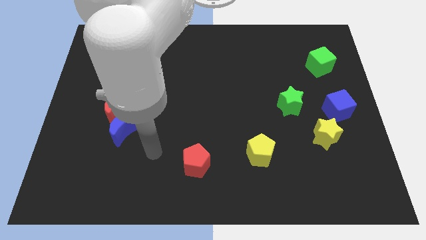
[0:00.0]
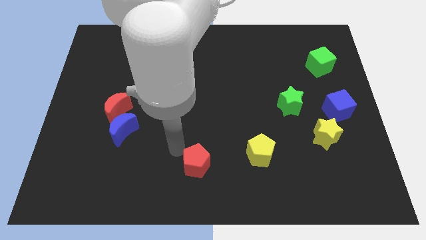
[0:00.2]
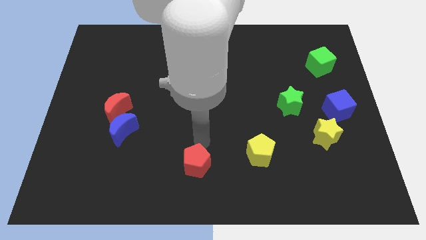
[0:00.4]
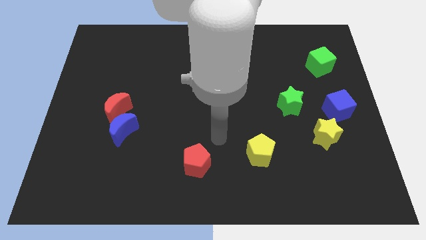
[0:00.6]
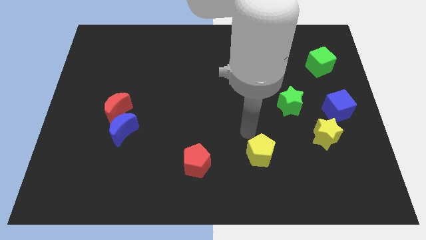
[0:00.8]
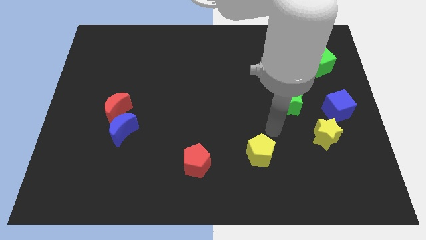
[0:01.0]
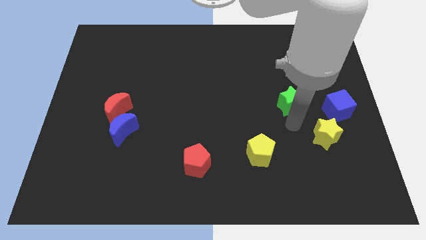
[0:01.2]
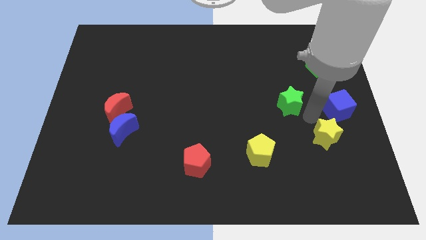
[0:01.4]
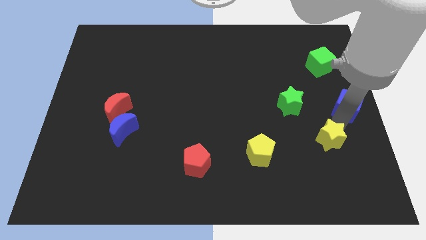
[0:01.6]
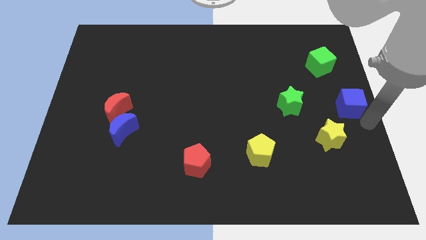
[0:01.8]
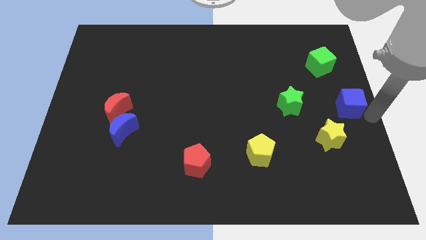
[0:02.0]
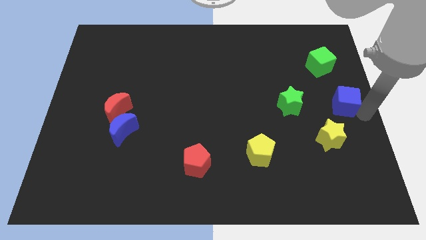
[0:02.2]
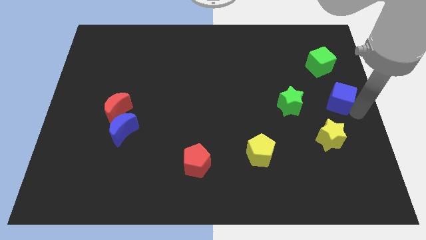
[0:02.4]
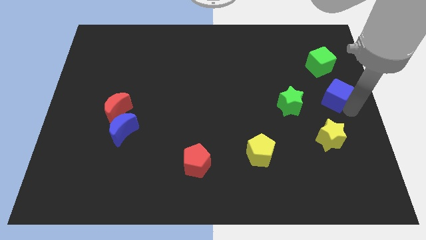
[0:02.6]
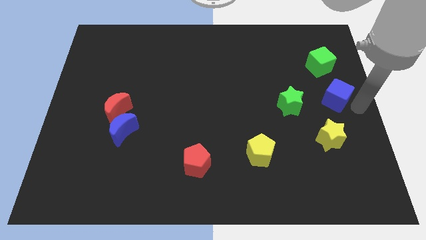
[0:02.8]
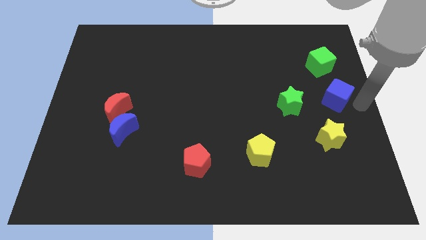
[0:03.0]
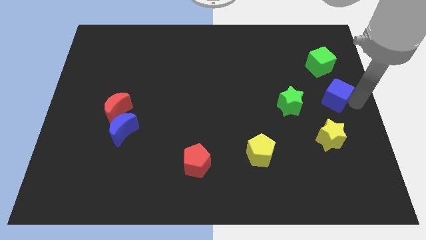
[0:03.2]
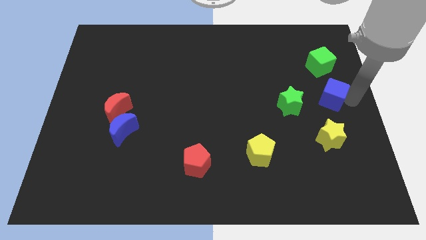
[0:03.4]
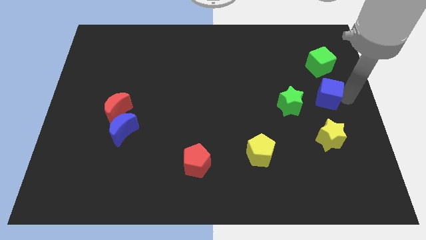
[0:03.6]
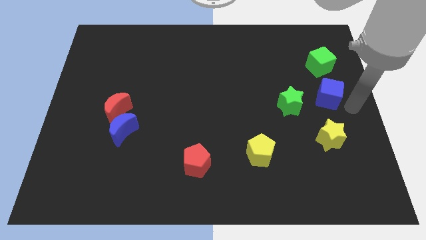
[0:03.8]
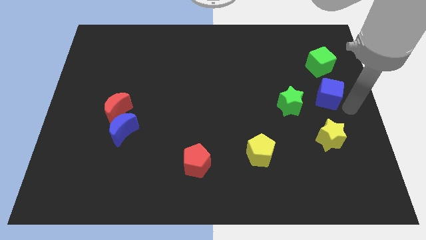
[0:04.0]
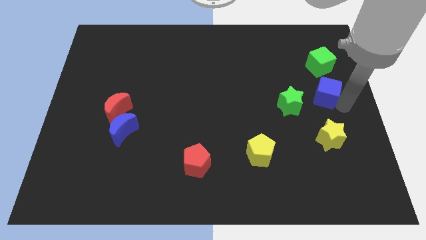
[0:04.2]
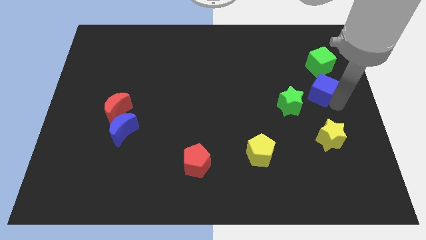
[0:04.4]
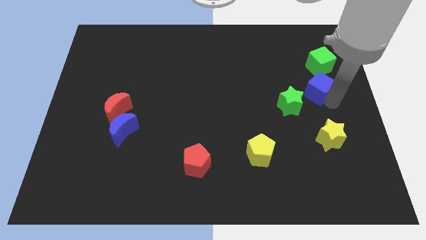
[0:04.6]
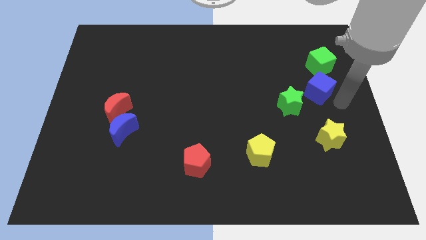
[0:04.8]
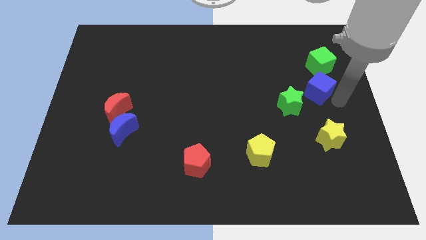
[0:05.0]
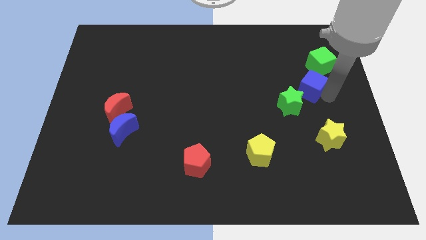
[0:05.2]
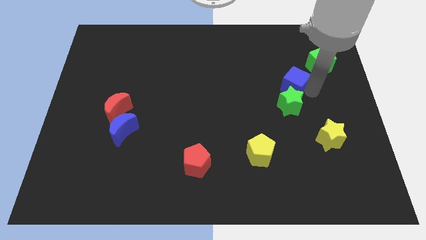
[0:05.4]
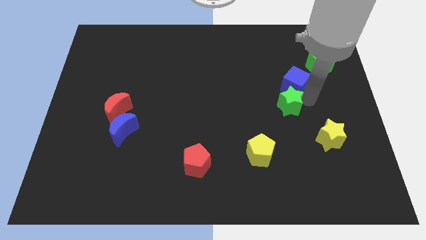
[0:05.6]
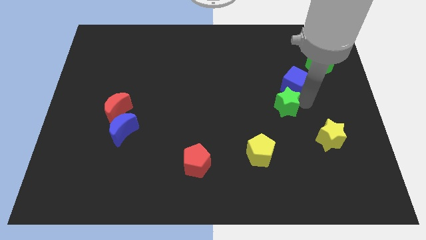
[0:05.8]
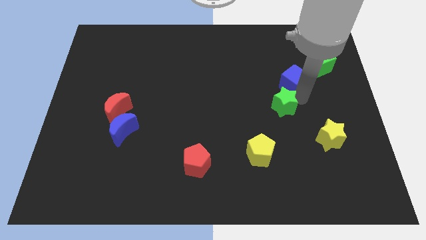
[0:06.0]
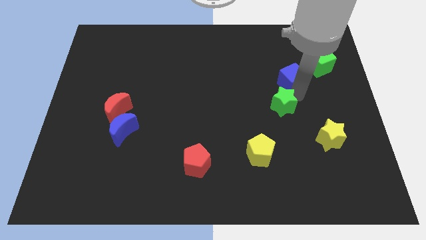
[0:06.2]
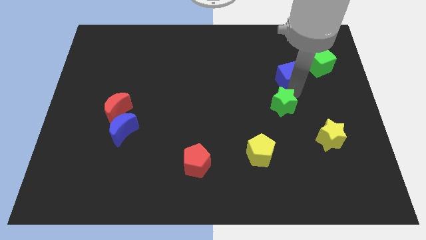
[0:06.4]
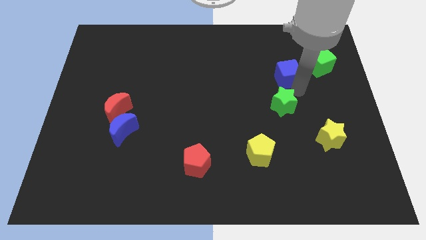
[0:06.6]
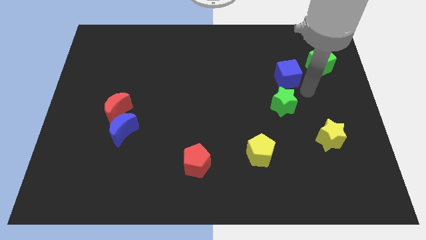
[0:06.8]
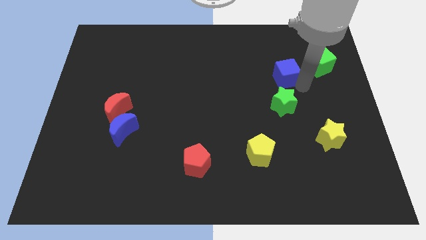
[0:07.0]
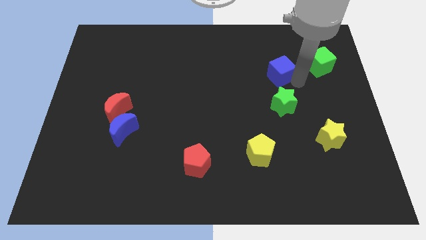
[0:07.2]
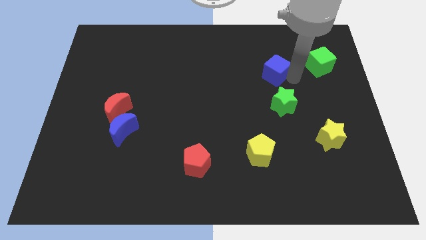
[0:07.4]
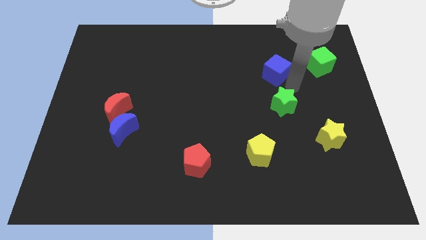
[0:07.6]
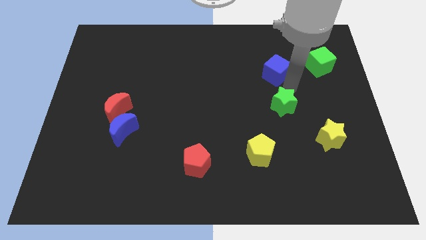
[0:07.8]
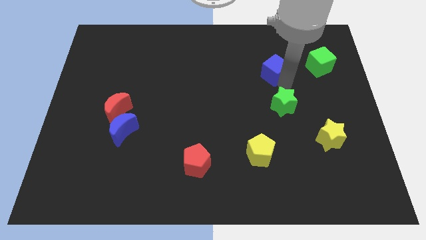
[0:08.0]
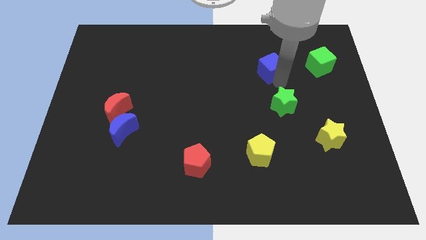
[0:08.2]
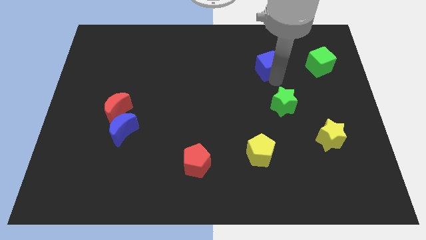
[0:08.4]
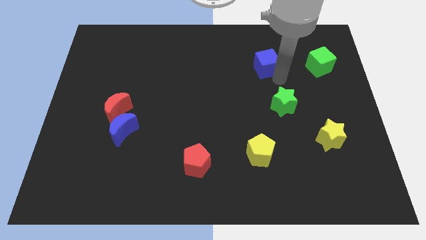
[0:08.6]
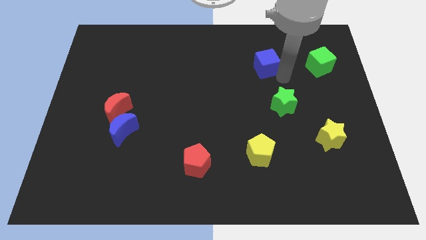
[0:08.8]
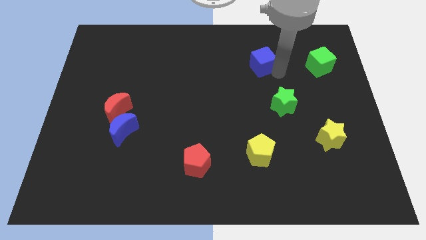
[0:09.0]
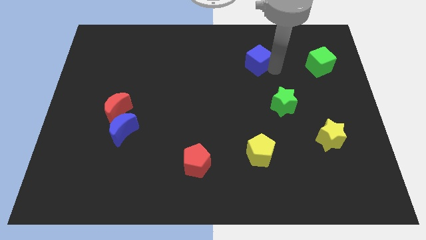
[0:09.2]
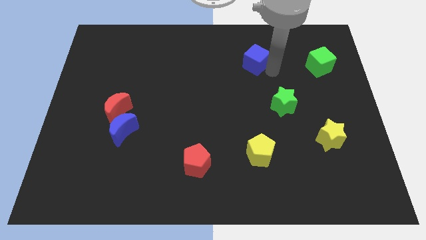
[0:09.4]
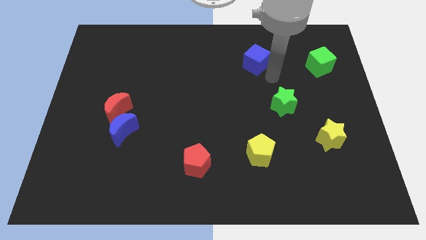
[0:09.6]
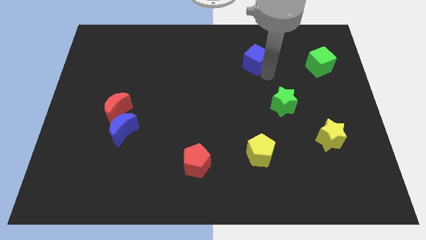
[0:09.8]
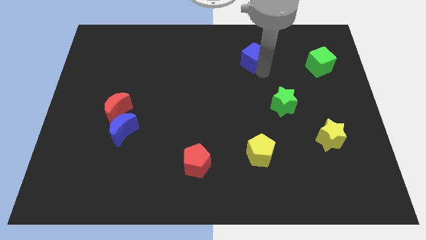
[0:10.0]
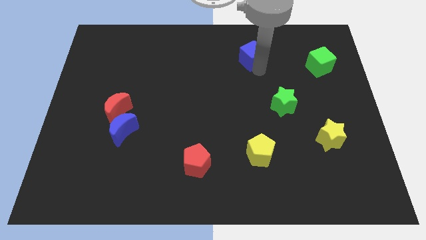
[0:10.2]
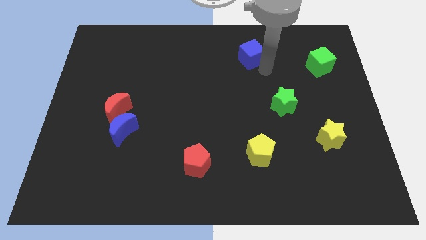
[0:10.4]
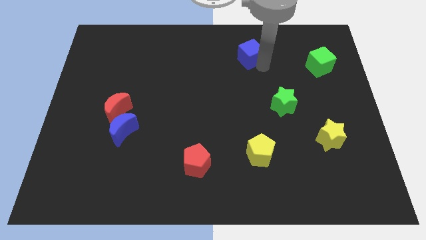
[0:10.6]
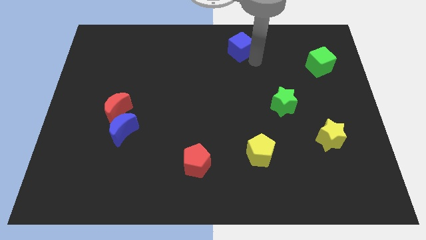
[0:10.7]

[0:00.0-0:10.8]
move the blue cube to the top

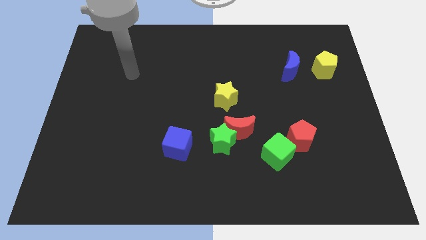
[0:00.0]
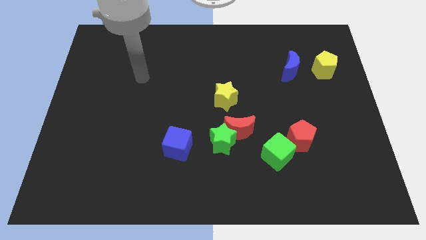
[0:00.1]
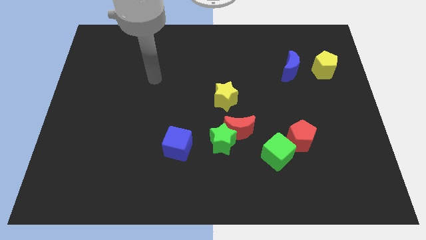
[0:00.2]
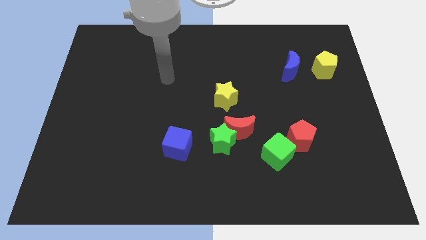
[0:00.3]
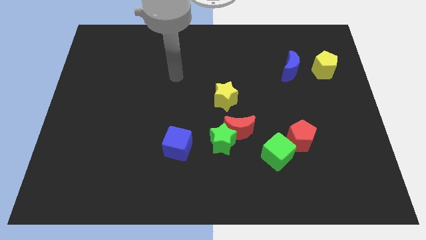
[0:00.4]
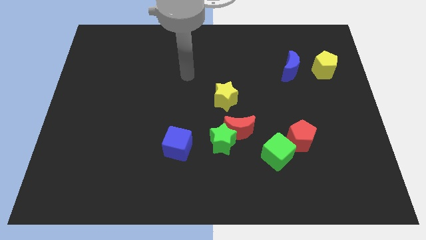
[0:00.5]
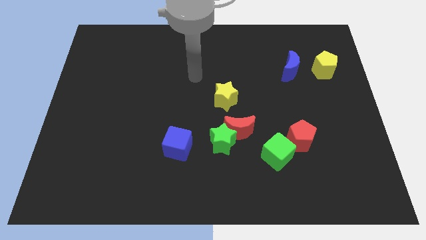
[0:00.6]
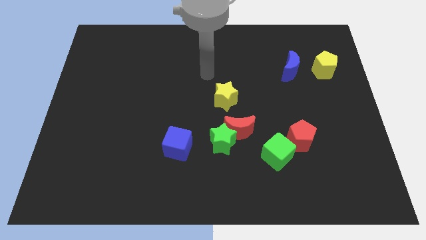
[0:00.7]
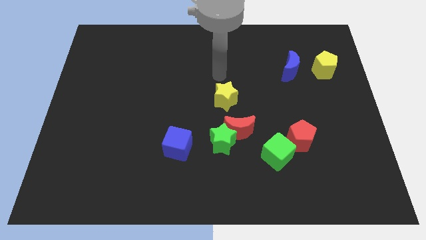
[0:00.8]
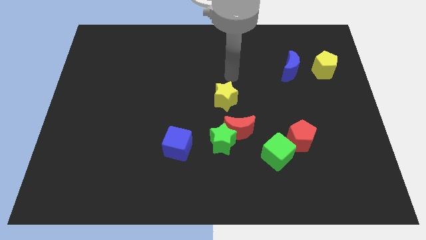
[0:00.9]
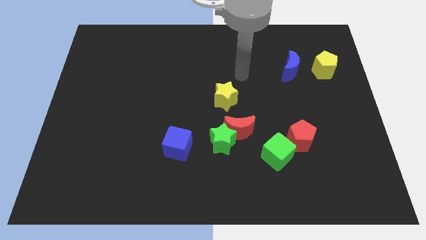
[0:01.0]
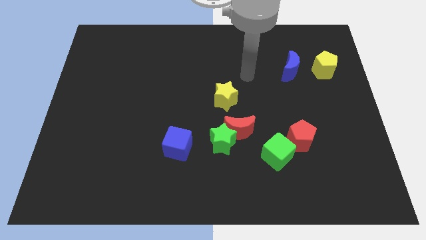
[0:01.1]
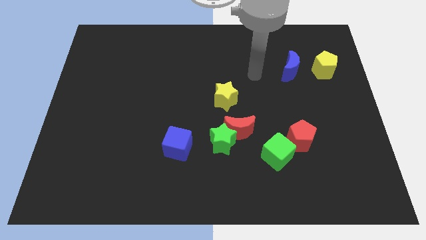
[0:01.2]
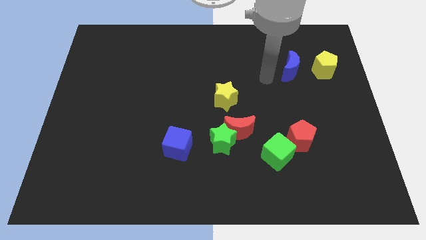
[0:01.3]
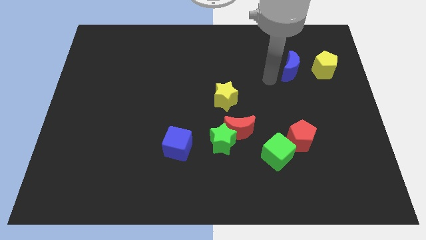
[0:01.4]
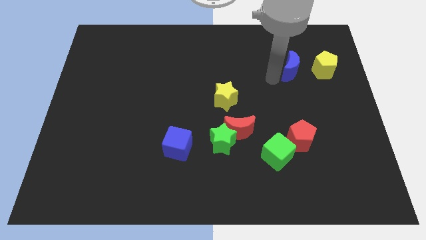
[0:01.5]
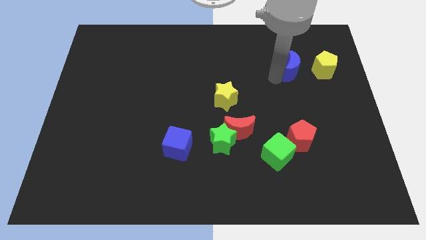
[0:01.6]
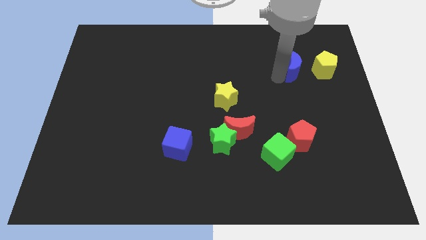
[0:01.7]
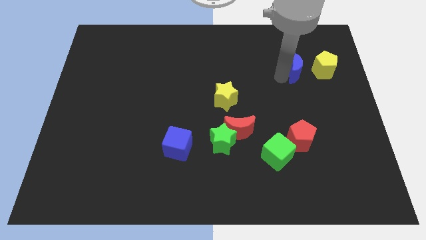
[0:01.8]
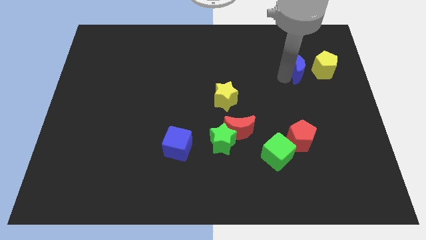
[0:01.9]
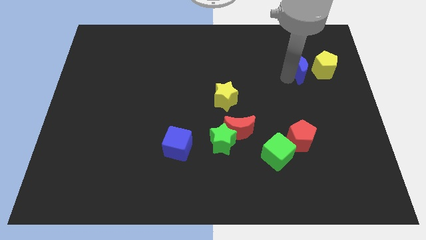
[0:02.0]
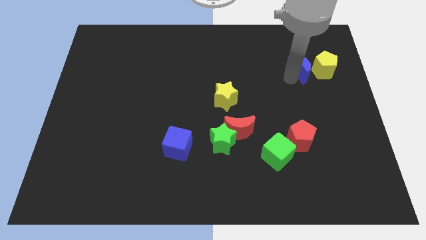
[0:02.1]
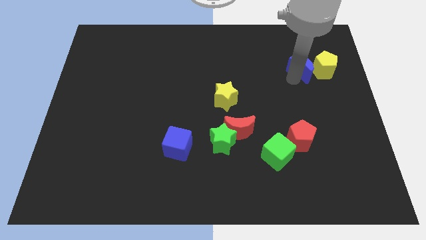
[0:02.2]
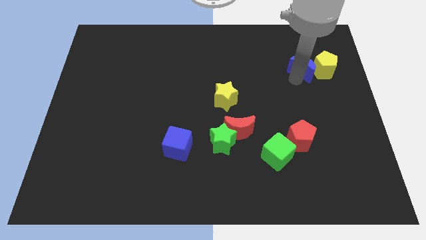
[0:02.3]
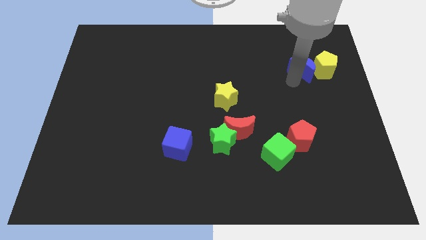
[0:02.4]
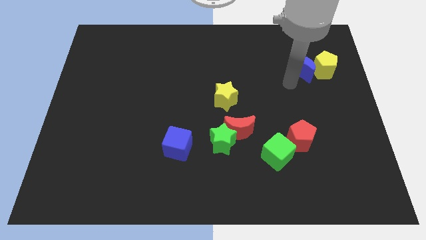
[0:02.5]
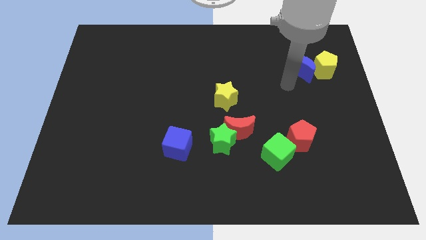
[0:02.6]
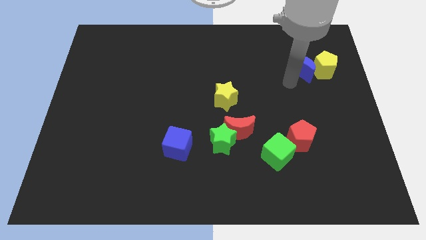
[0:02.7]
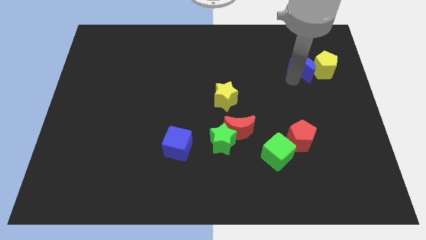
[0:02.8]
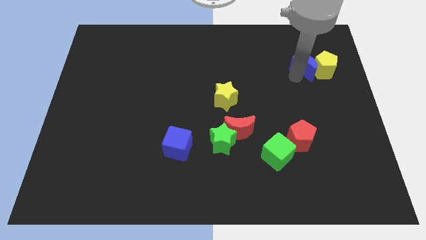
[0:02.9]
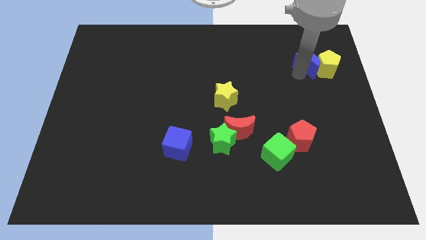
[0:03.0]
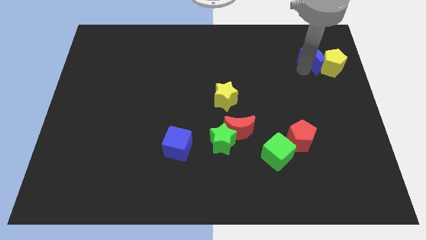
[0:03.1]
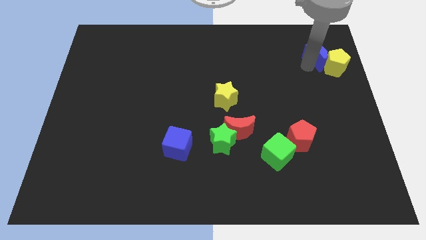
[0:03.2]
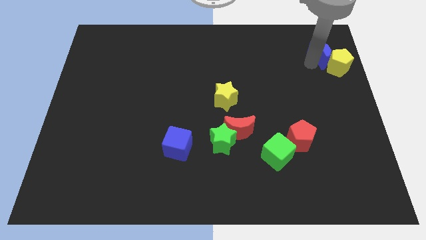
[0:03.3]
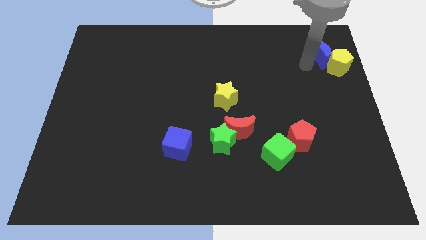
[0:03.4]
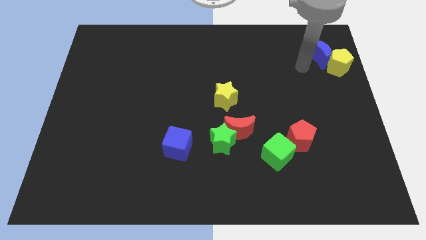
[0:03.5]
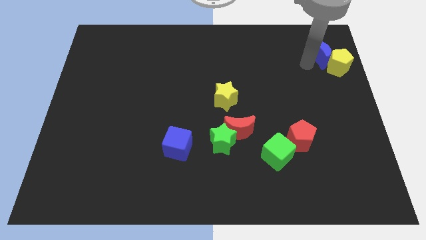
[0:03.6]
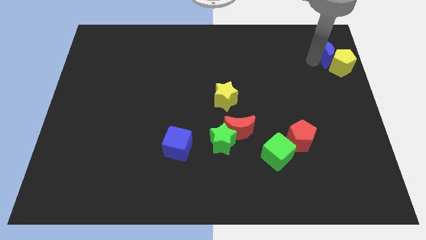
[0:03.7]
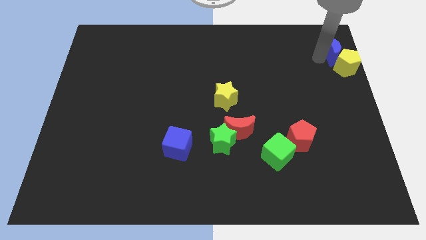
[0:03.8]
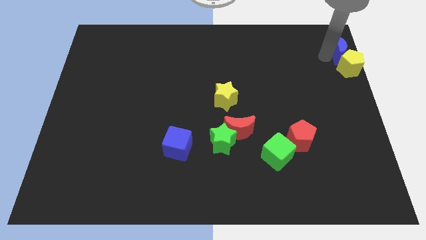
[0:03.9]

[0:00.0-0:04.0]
put the blue moon to the top right
